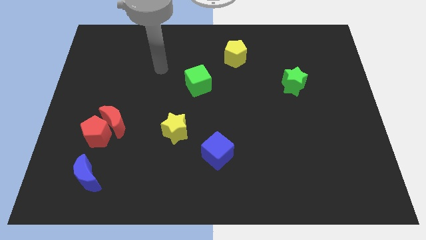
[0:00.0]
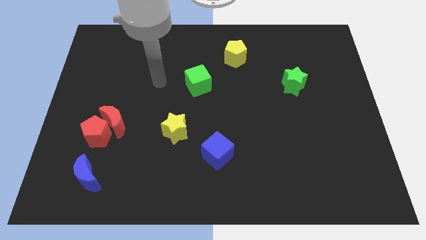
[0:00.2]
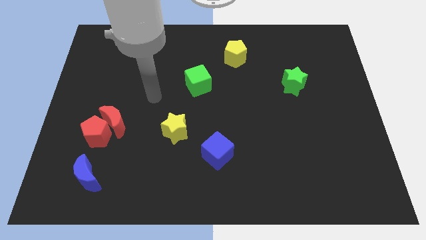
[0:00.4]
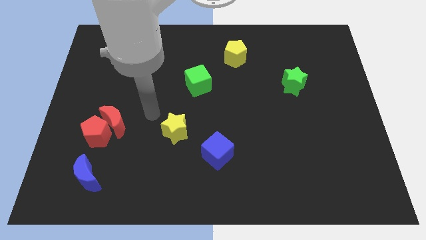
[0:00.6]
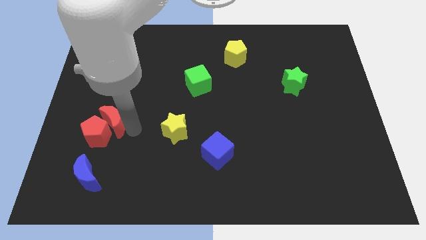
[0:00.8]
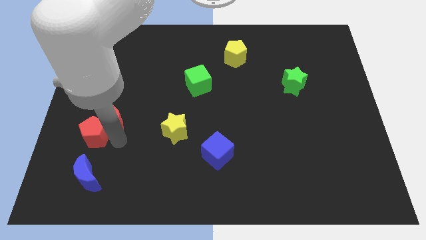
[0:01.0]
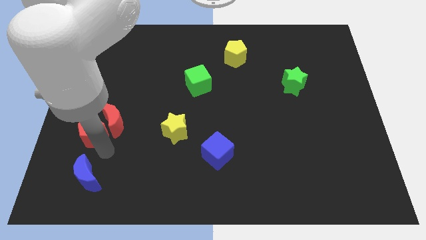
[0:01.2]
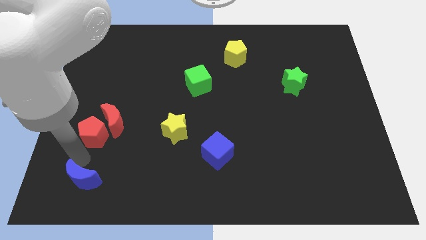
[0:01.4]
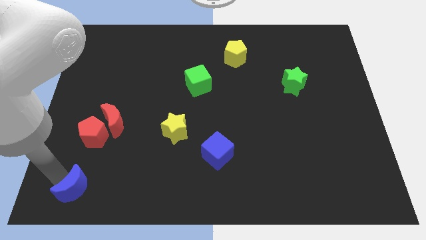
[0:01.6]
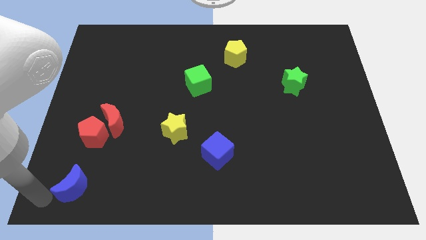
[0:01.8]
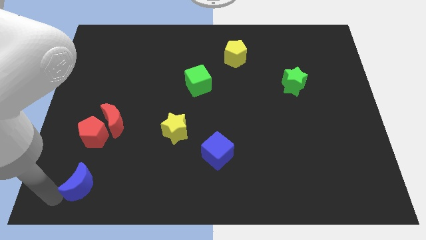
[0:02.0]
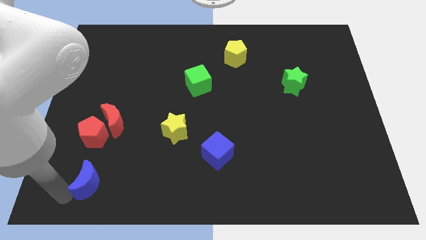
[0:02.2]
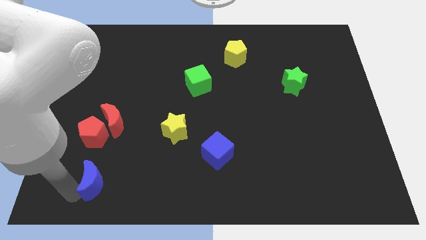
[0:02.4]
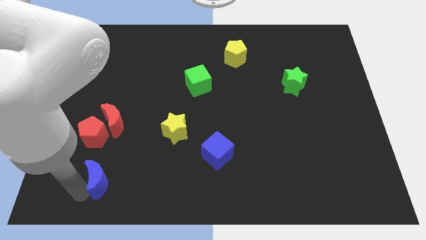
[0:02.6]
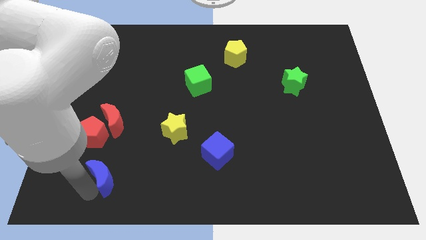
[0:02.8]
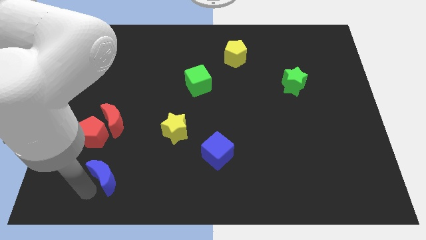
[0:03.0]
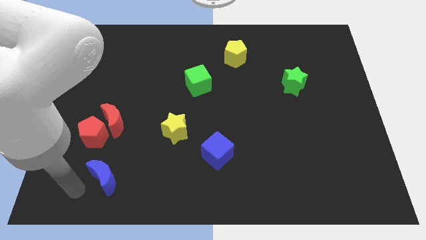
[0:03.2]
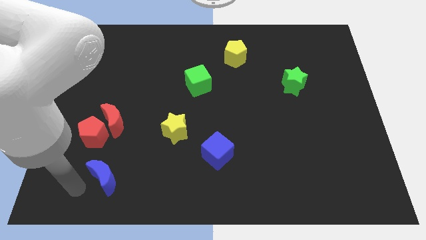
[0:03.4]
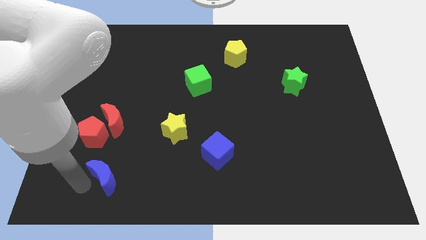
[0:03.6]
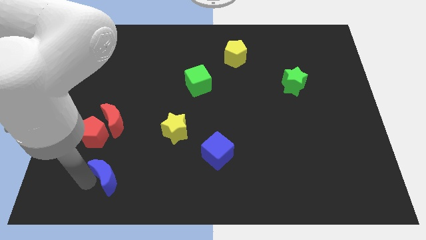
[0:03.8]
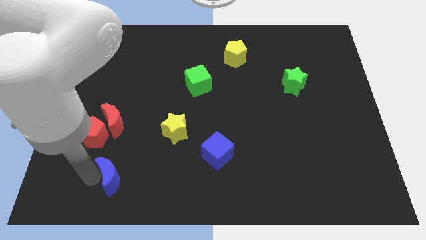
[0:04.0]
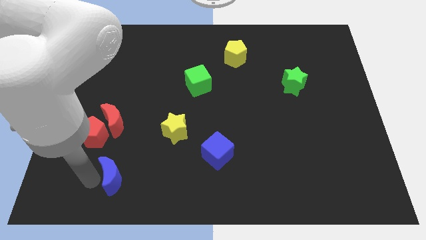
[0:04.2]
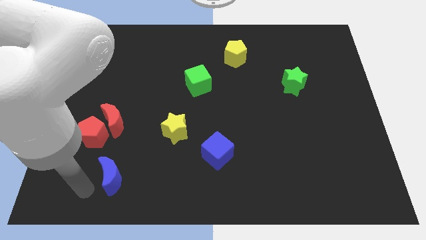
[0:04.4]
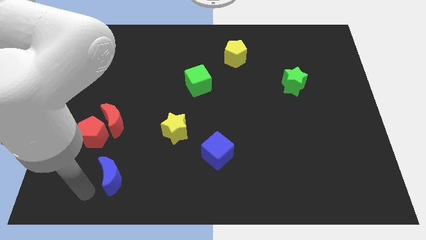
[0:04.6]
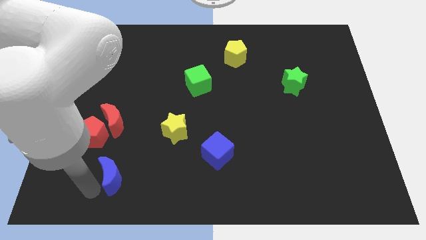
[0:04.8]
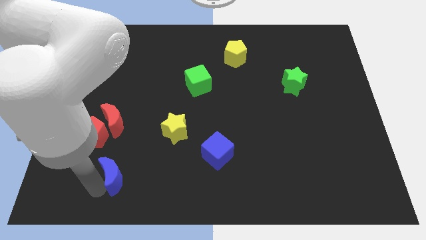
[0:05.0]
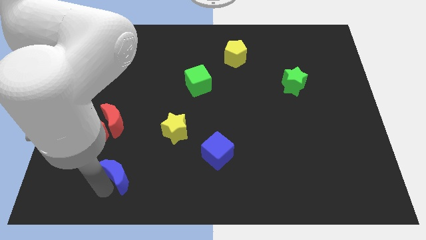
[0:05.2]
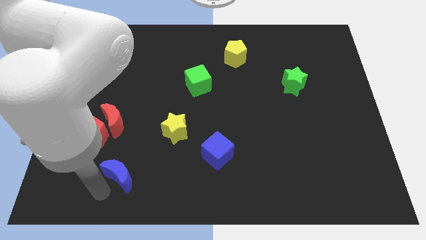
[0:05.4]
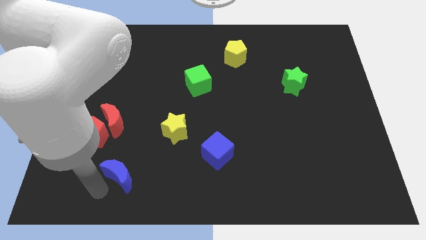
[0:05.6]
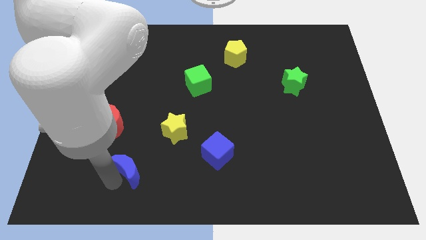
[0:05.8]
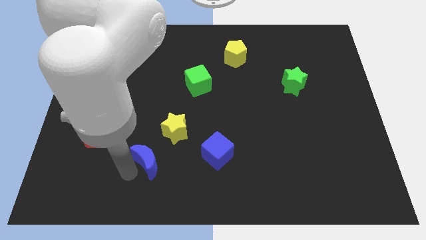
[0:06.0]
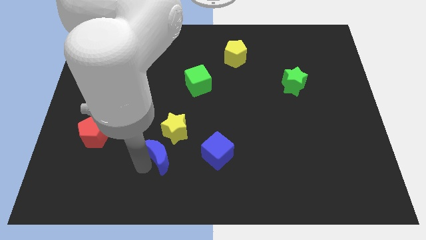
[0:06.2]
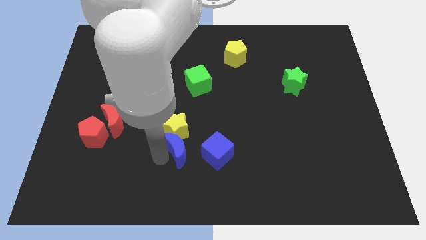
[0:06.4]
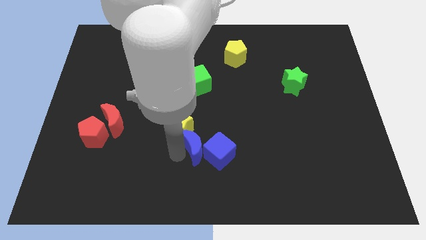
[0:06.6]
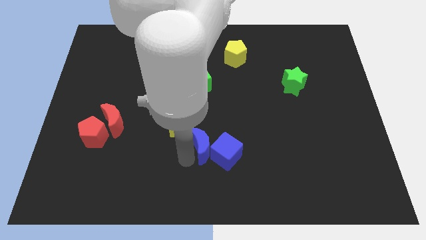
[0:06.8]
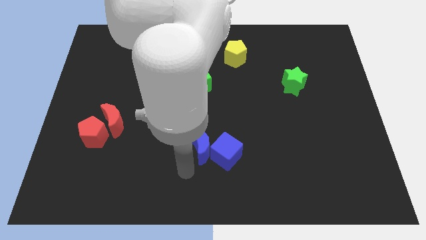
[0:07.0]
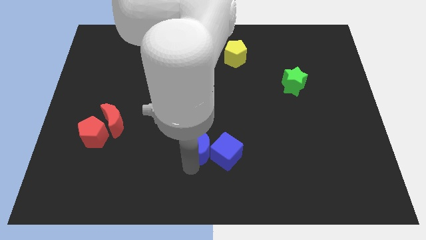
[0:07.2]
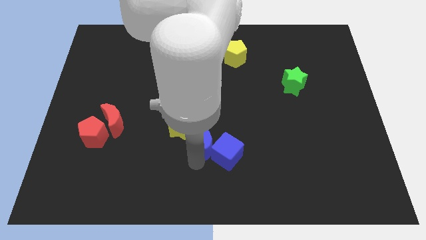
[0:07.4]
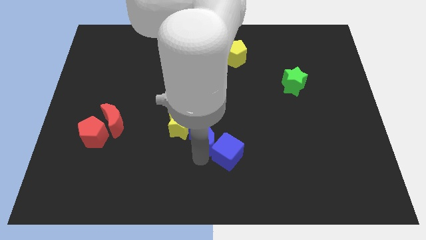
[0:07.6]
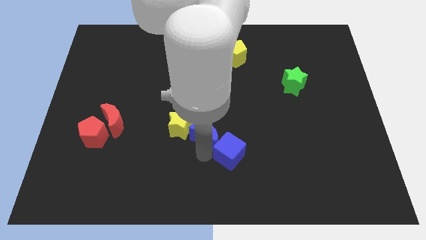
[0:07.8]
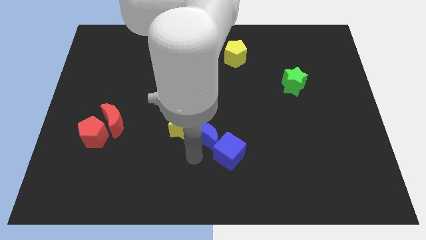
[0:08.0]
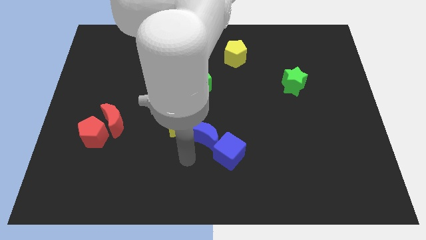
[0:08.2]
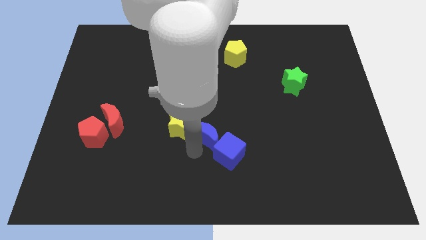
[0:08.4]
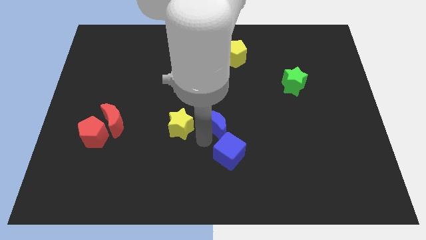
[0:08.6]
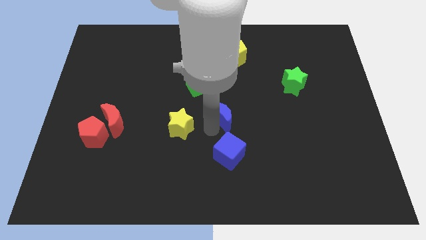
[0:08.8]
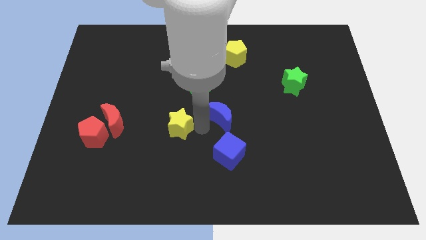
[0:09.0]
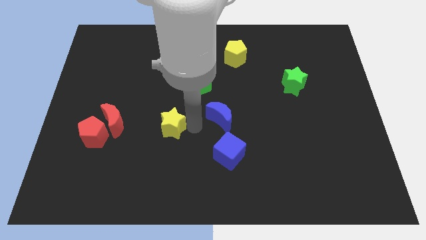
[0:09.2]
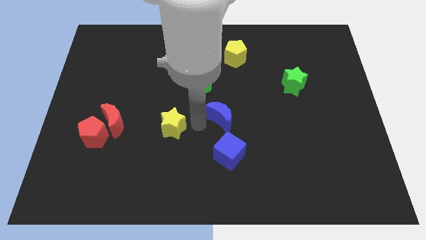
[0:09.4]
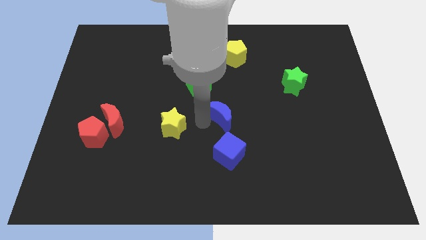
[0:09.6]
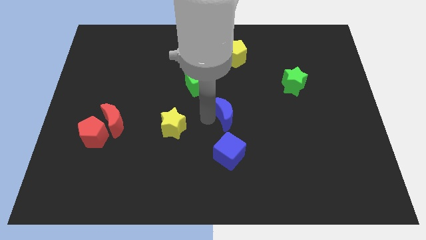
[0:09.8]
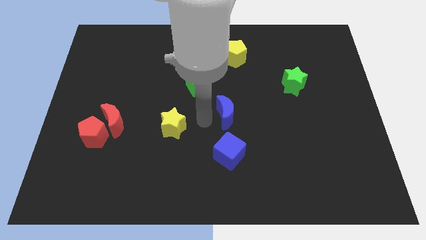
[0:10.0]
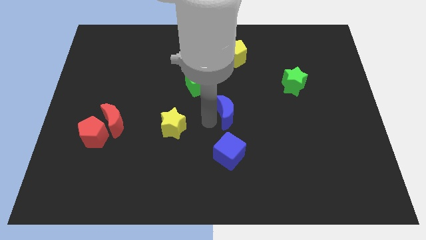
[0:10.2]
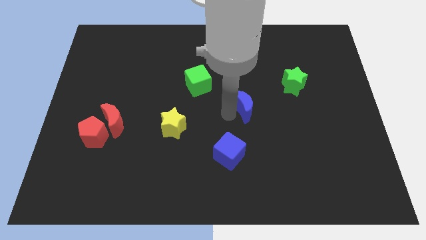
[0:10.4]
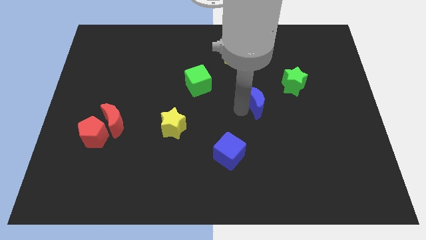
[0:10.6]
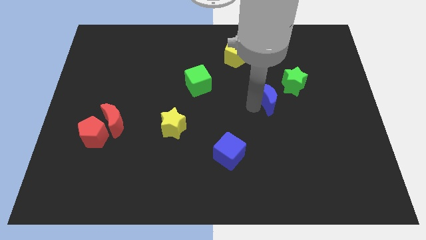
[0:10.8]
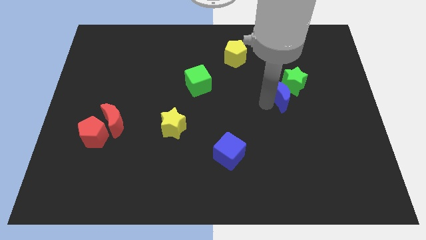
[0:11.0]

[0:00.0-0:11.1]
put the blue moon towards the green star

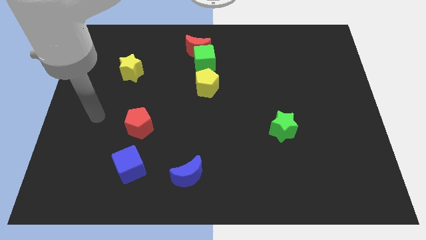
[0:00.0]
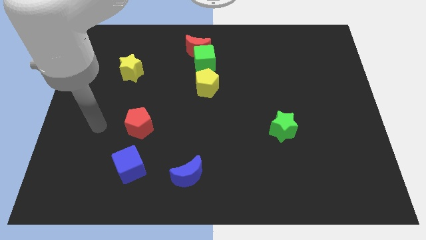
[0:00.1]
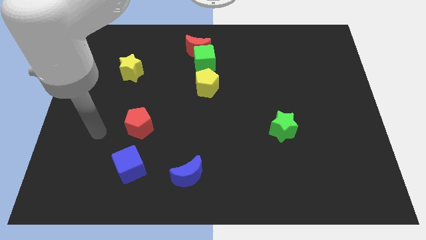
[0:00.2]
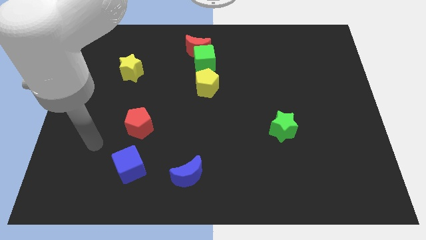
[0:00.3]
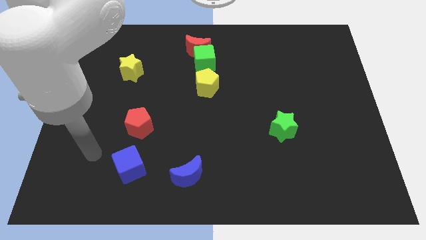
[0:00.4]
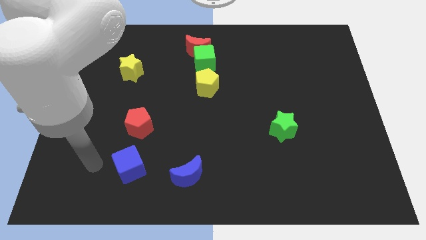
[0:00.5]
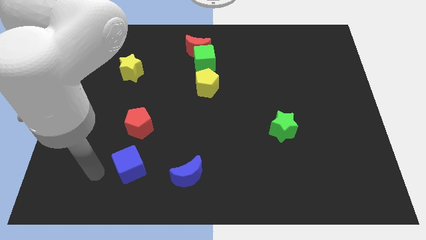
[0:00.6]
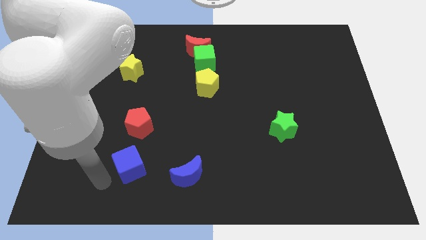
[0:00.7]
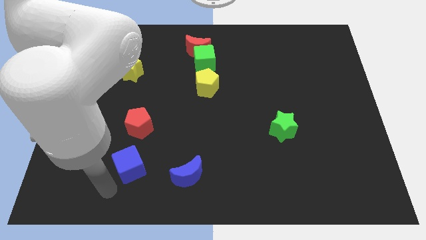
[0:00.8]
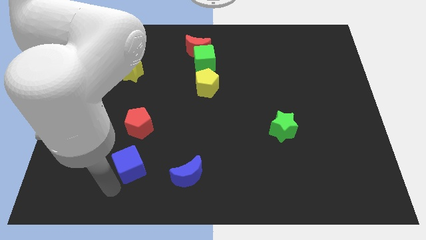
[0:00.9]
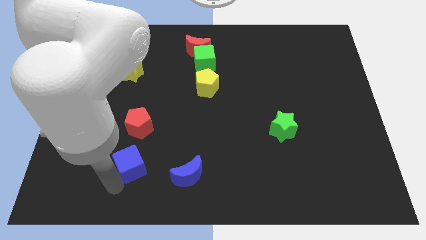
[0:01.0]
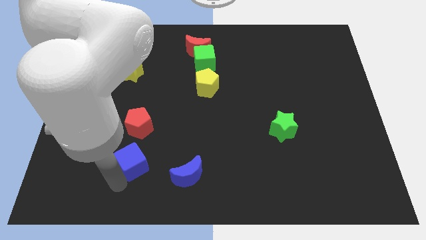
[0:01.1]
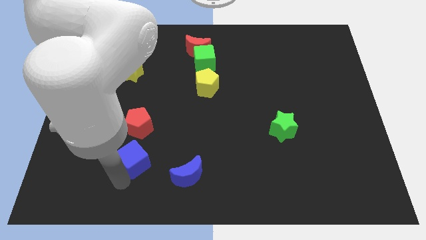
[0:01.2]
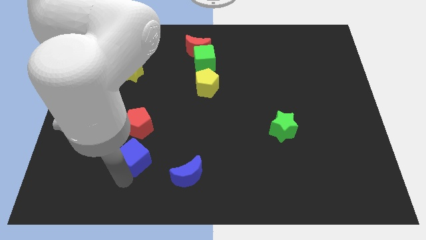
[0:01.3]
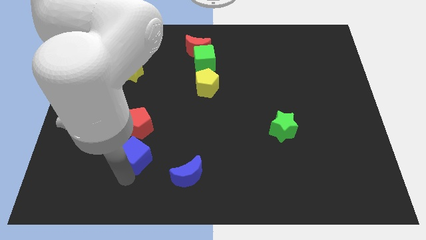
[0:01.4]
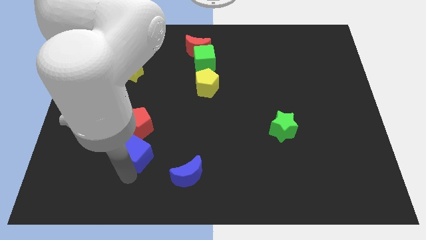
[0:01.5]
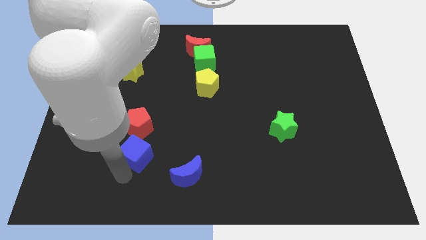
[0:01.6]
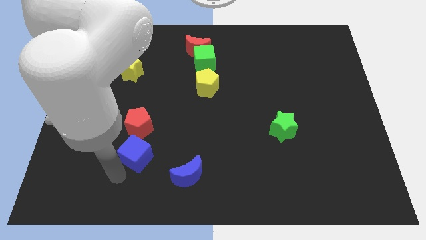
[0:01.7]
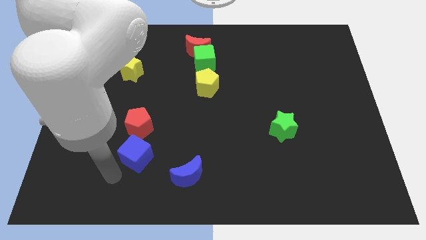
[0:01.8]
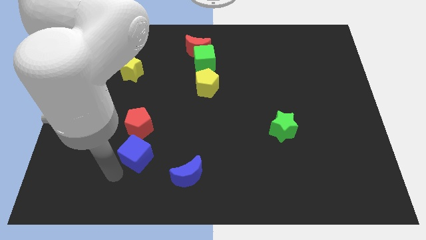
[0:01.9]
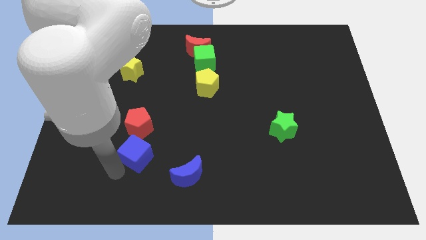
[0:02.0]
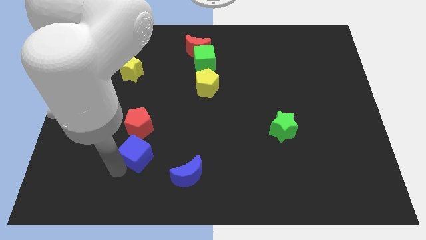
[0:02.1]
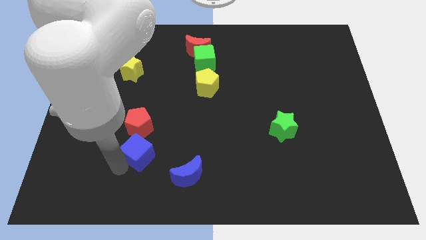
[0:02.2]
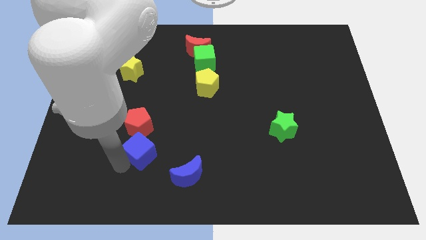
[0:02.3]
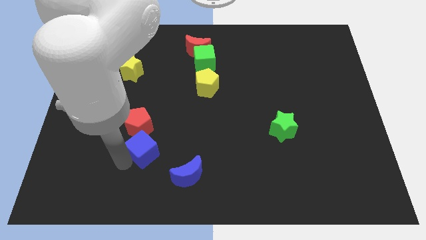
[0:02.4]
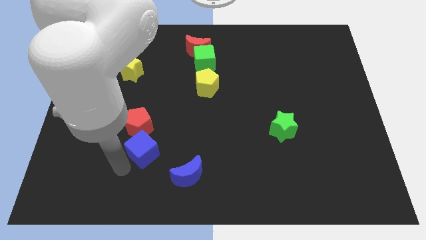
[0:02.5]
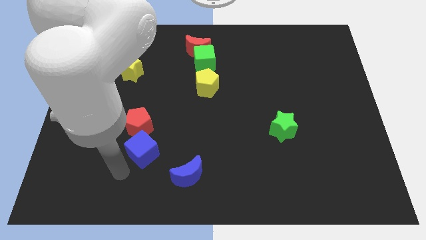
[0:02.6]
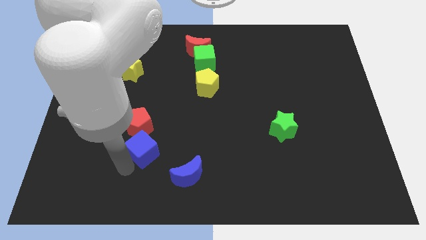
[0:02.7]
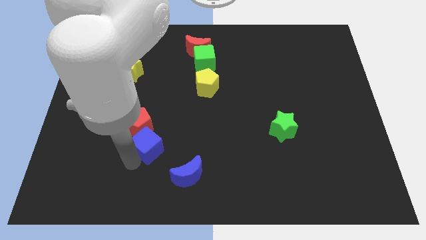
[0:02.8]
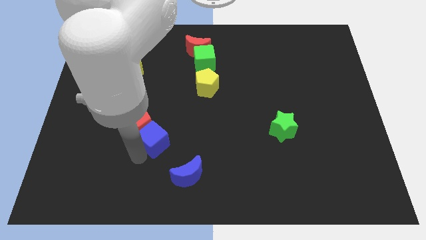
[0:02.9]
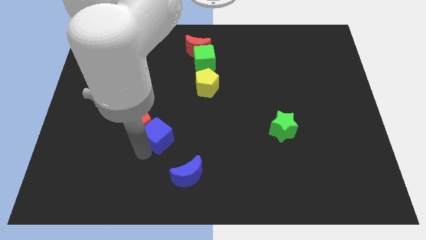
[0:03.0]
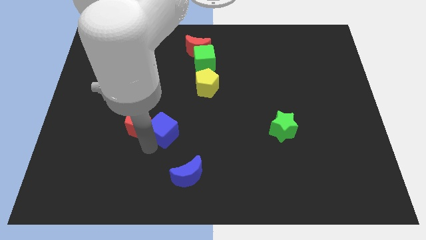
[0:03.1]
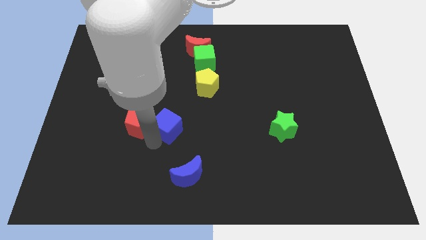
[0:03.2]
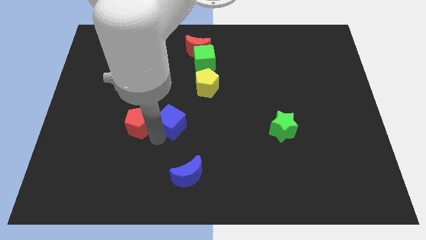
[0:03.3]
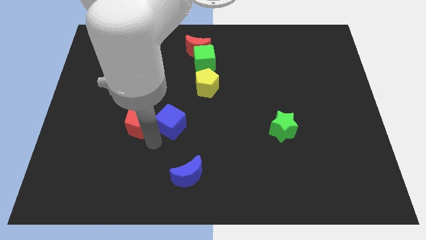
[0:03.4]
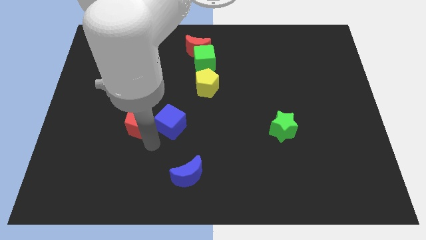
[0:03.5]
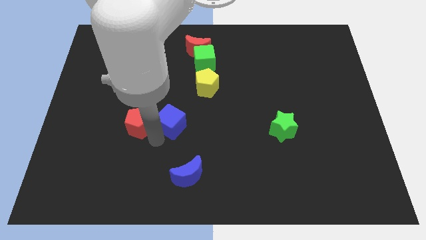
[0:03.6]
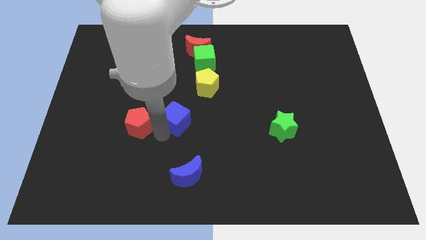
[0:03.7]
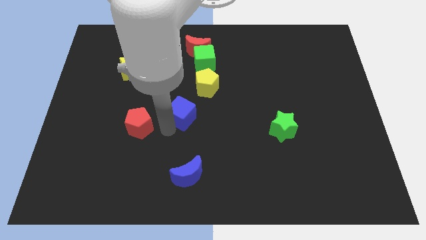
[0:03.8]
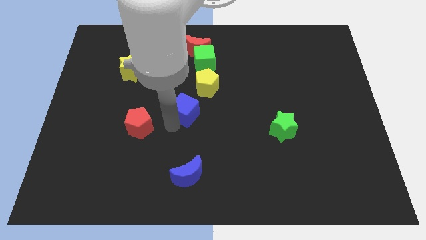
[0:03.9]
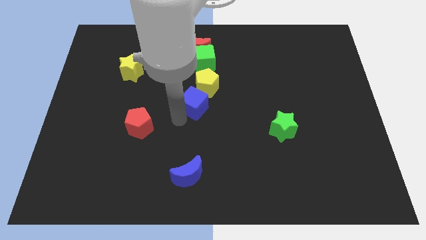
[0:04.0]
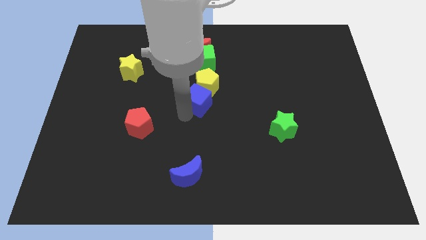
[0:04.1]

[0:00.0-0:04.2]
move the blue cube towards the yellow pentagon
